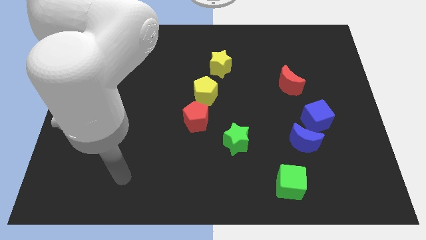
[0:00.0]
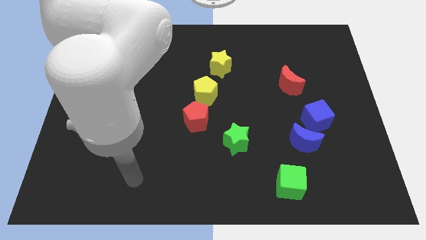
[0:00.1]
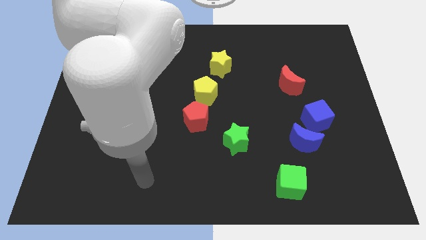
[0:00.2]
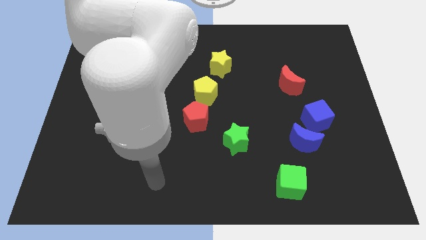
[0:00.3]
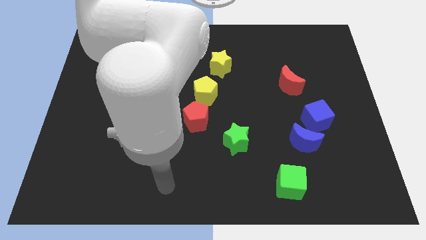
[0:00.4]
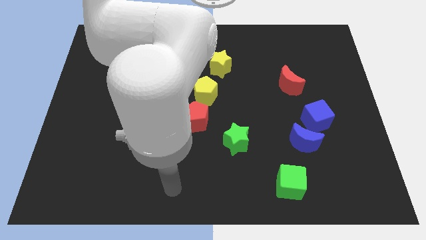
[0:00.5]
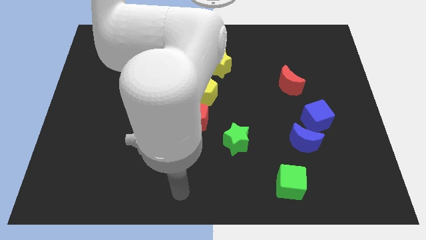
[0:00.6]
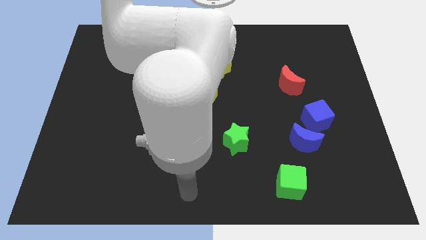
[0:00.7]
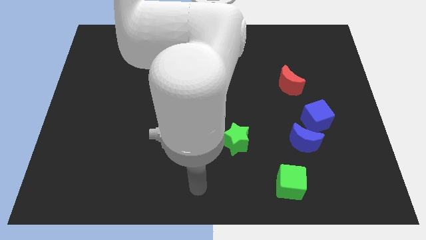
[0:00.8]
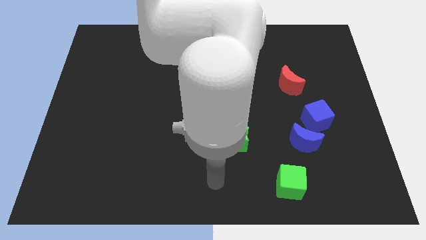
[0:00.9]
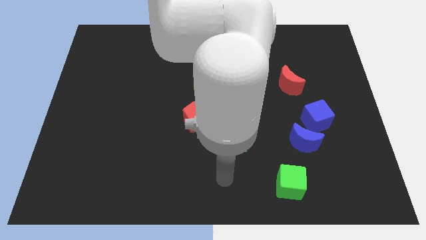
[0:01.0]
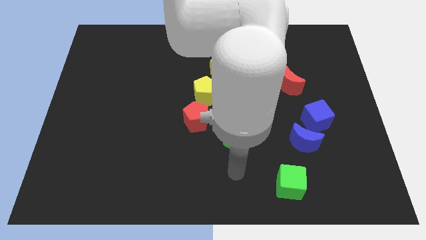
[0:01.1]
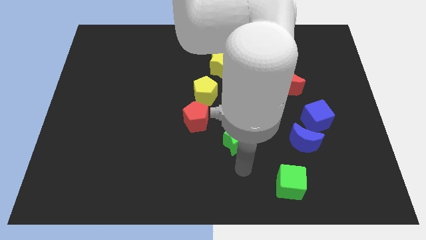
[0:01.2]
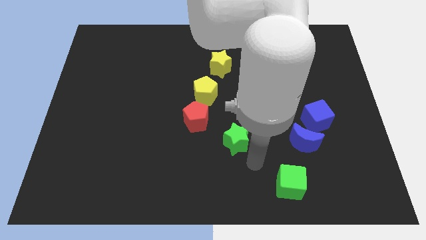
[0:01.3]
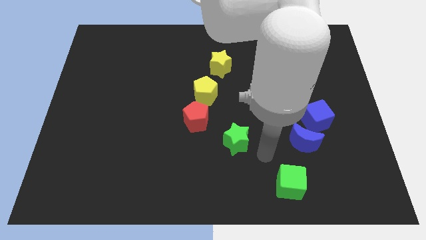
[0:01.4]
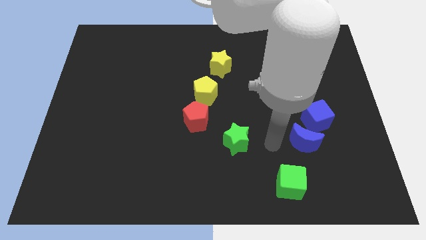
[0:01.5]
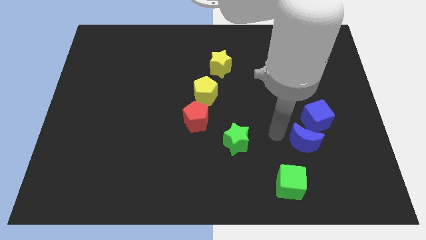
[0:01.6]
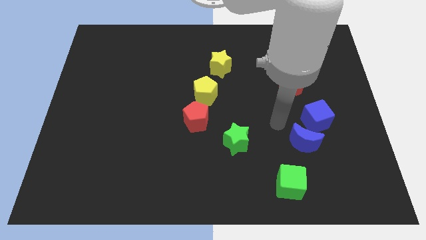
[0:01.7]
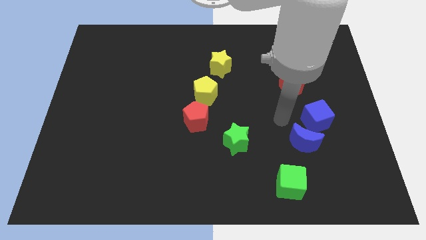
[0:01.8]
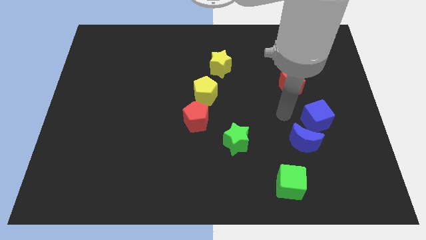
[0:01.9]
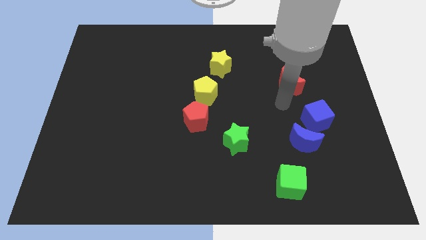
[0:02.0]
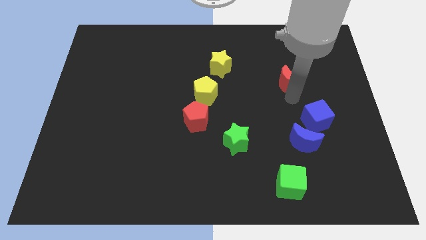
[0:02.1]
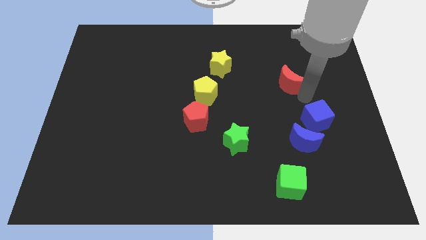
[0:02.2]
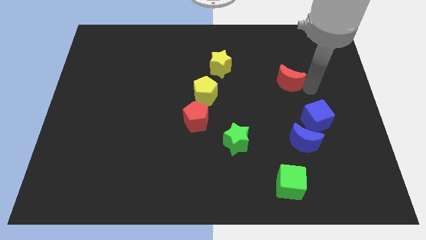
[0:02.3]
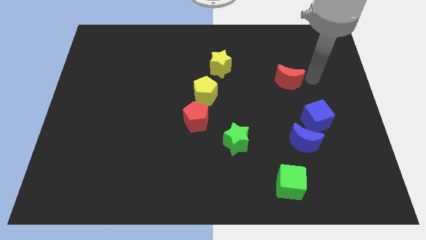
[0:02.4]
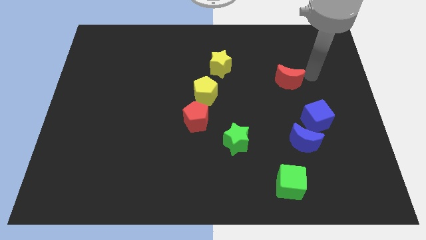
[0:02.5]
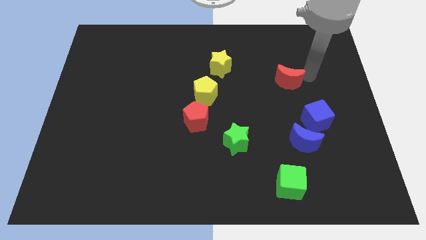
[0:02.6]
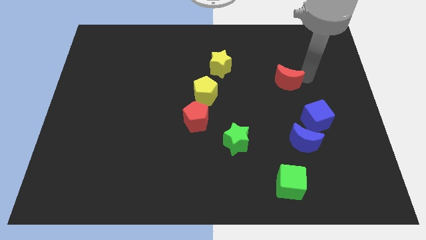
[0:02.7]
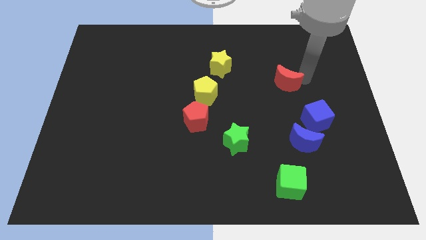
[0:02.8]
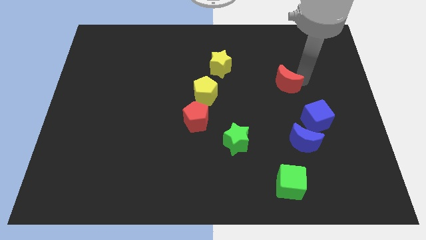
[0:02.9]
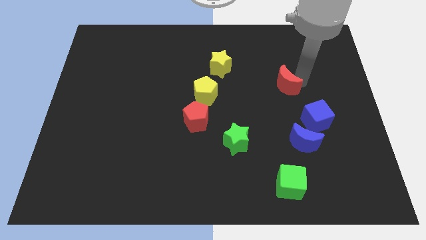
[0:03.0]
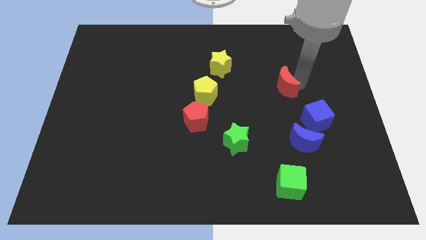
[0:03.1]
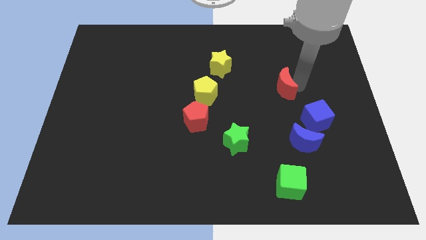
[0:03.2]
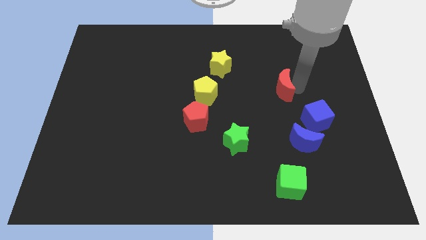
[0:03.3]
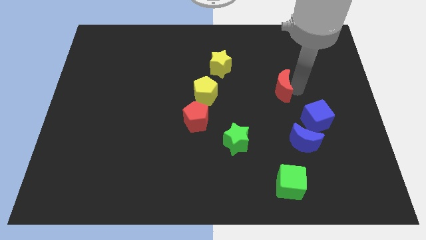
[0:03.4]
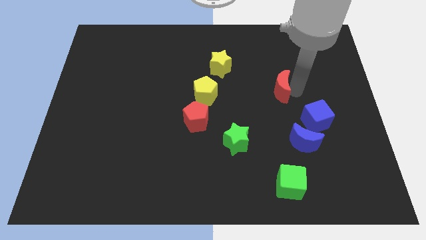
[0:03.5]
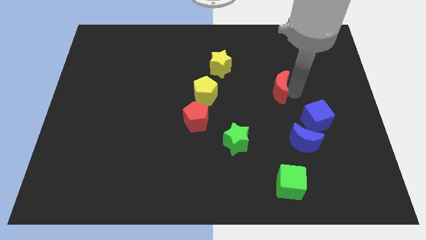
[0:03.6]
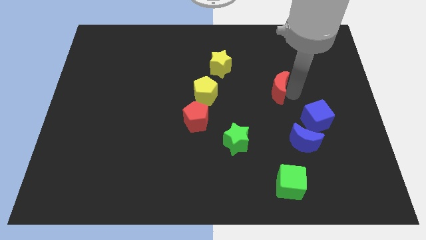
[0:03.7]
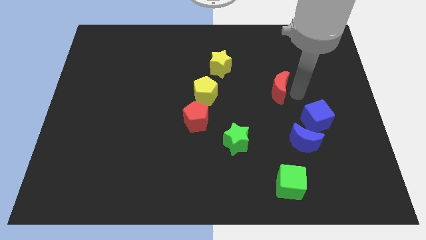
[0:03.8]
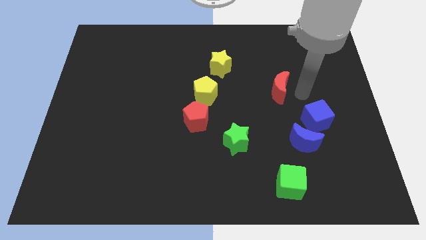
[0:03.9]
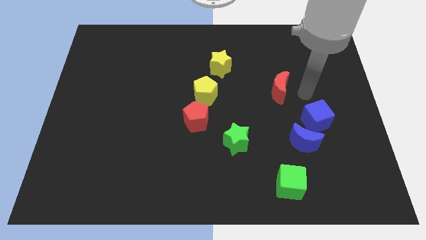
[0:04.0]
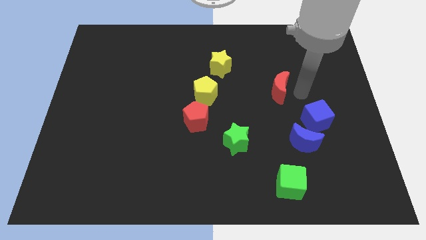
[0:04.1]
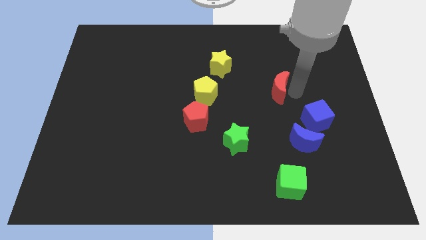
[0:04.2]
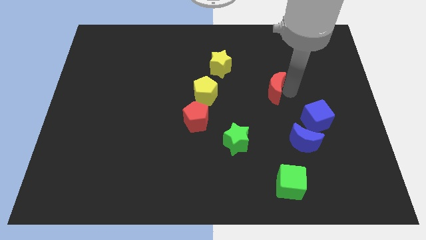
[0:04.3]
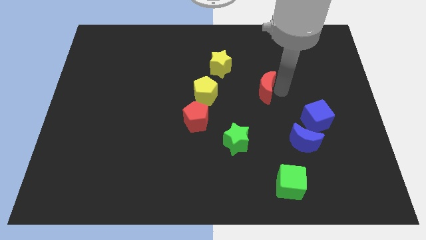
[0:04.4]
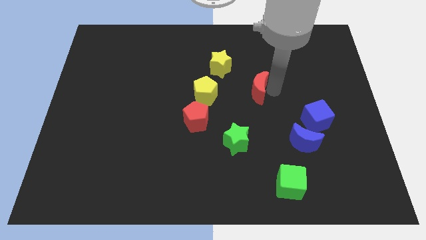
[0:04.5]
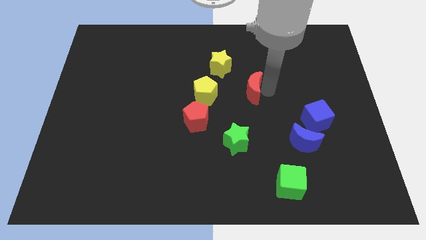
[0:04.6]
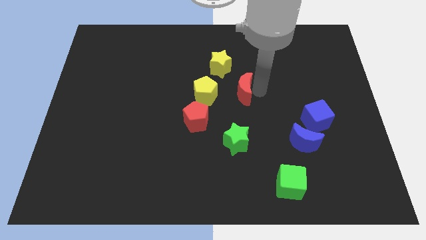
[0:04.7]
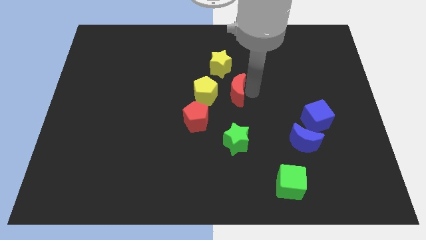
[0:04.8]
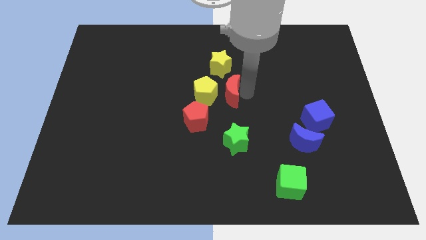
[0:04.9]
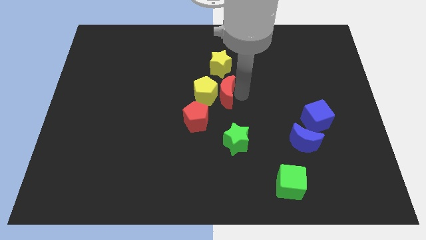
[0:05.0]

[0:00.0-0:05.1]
put the red moon next to the yellow pentagon

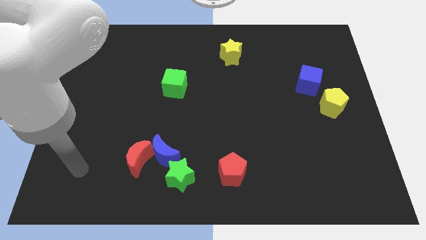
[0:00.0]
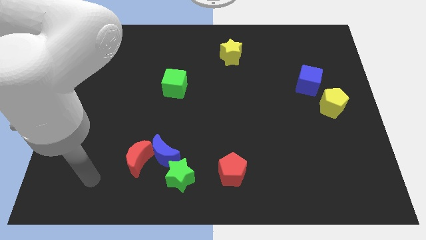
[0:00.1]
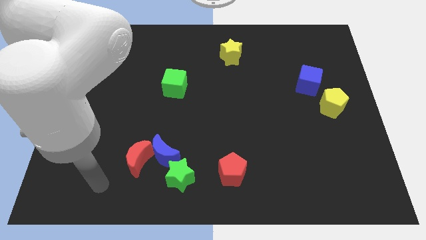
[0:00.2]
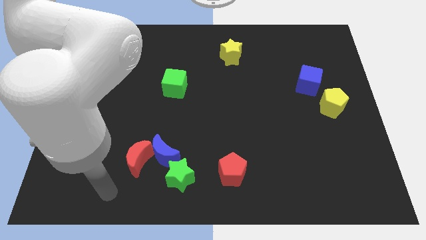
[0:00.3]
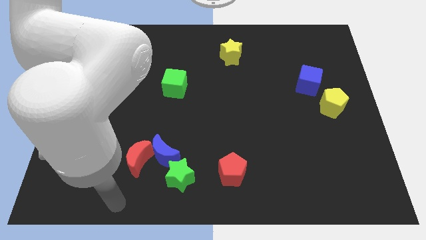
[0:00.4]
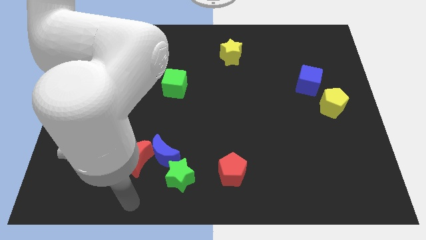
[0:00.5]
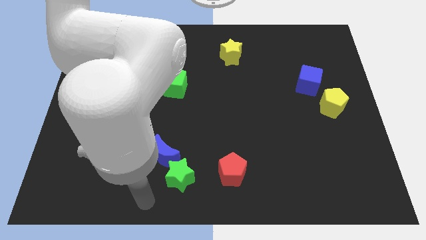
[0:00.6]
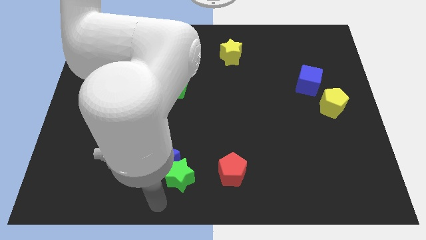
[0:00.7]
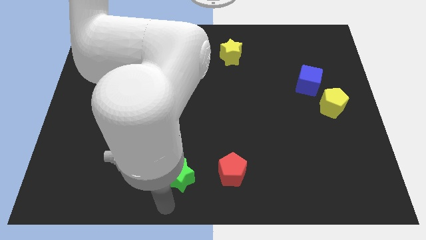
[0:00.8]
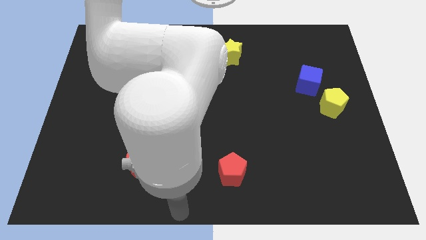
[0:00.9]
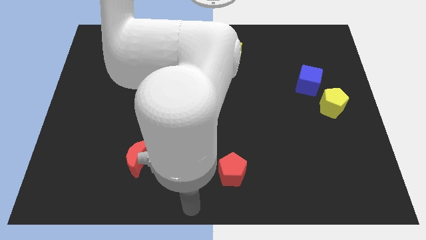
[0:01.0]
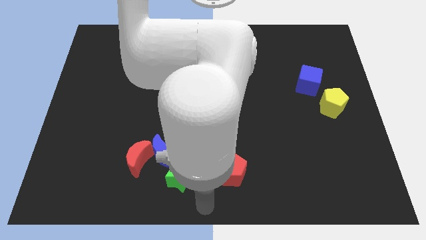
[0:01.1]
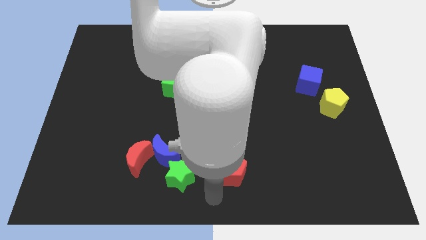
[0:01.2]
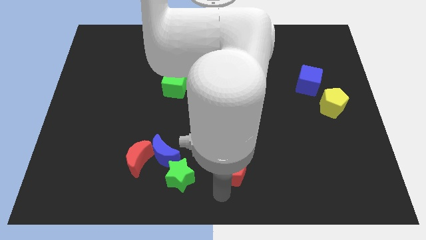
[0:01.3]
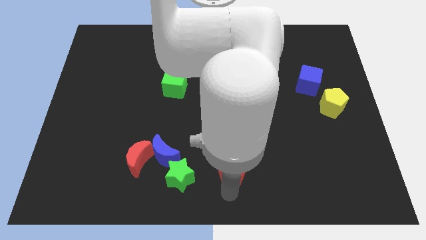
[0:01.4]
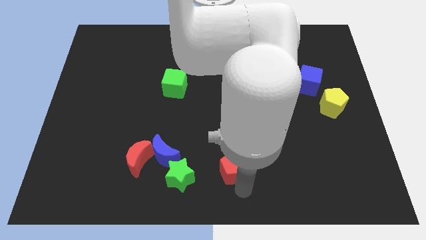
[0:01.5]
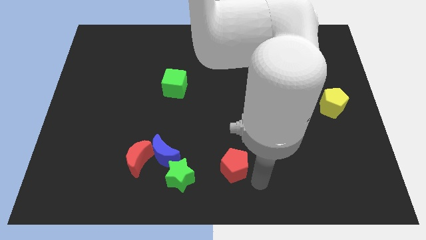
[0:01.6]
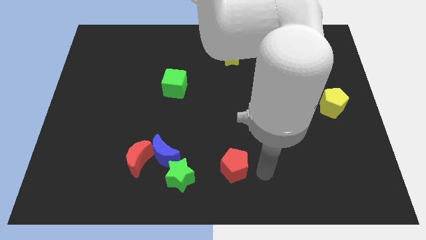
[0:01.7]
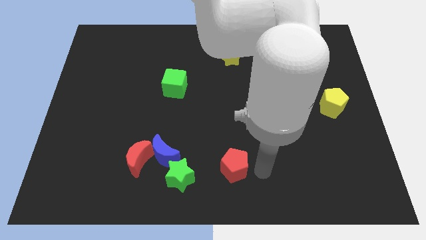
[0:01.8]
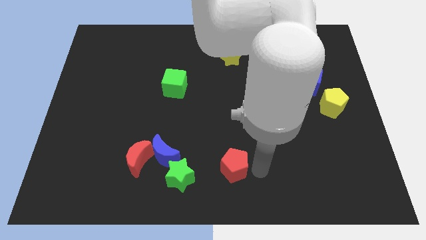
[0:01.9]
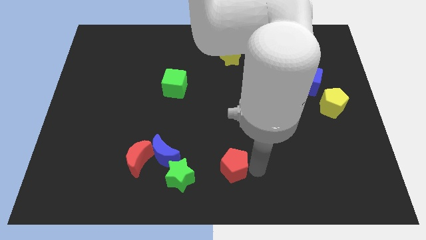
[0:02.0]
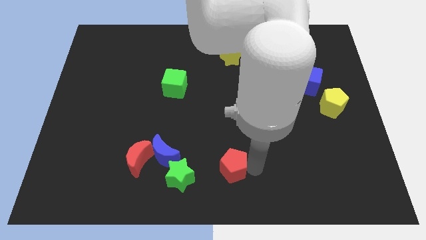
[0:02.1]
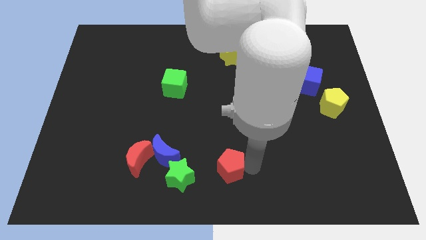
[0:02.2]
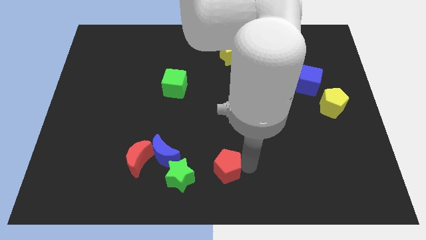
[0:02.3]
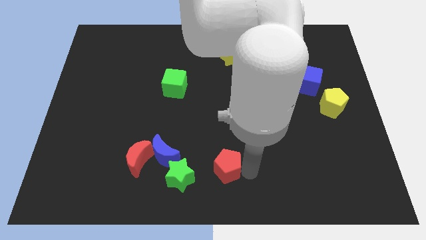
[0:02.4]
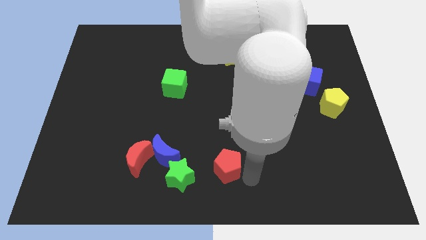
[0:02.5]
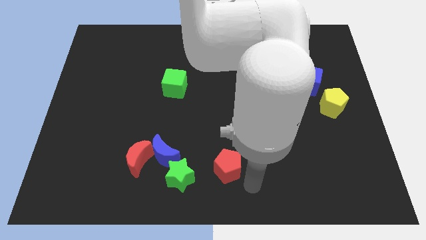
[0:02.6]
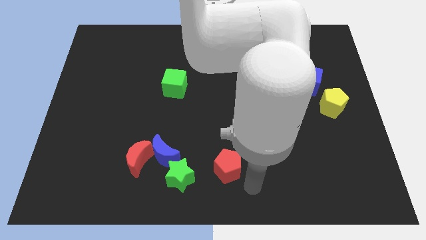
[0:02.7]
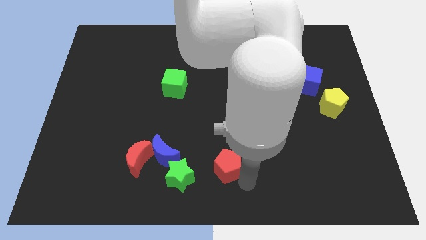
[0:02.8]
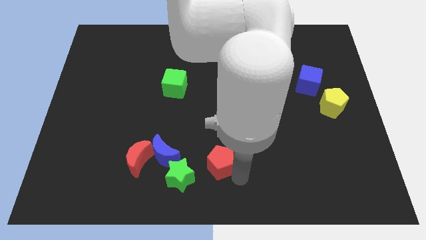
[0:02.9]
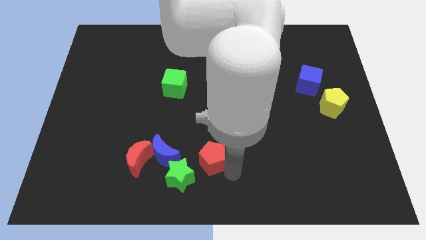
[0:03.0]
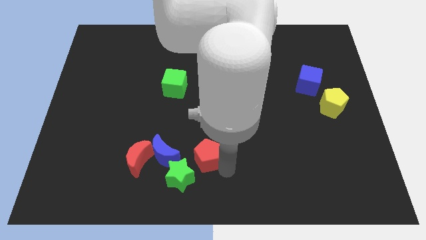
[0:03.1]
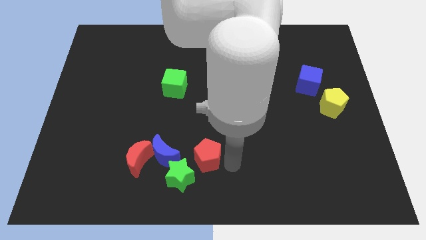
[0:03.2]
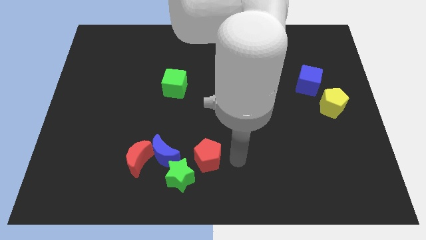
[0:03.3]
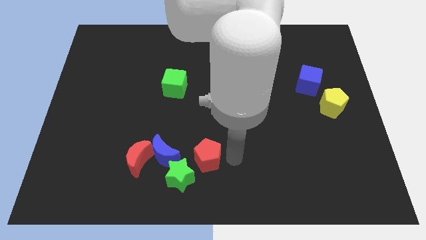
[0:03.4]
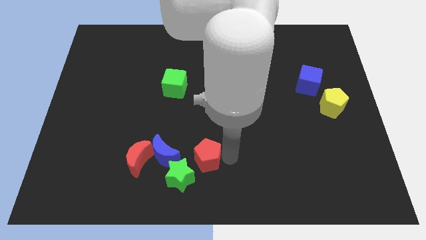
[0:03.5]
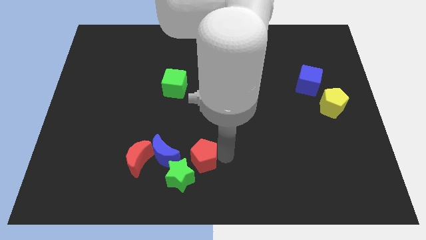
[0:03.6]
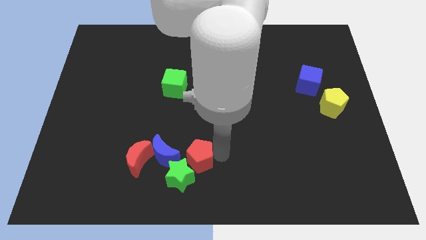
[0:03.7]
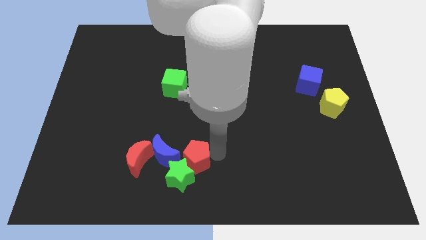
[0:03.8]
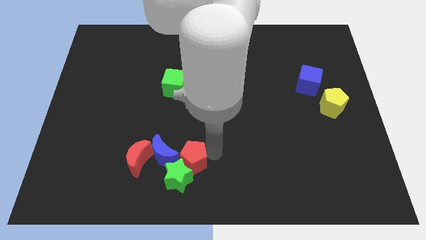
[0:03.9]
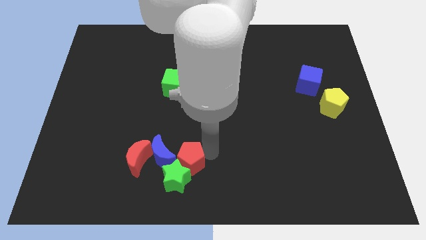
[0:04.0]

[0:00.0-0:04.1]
slide the red pentagon next to the blue moon
